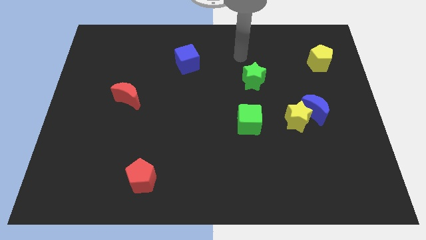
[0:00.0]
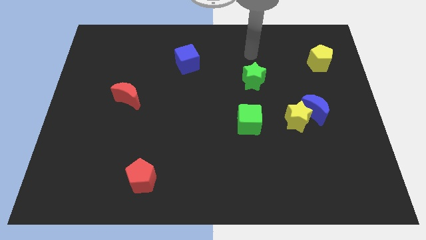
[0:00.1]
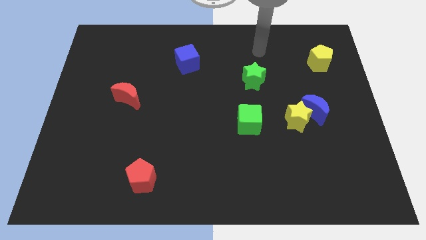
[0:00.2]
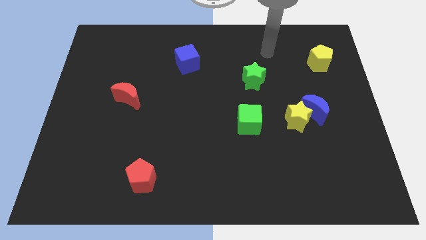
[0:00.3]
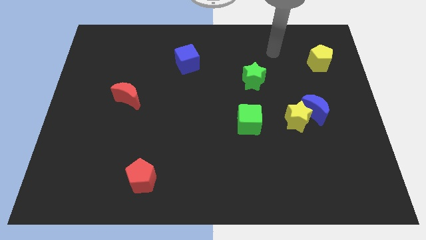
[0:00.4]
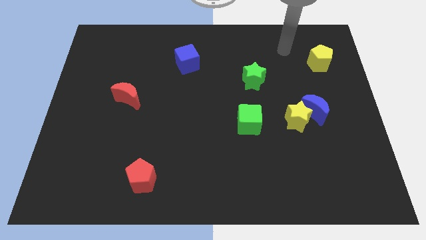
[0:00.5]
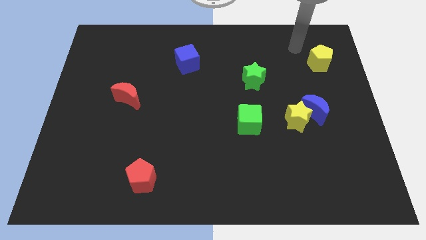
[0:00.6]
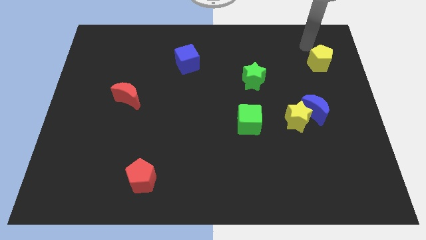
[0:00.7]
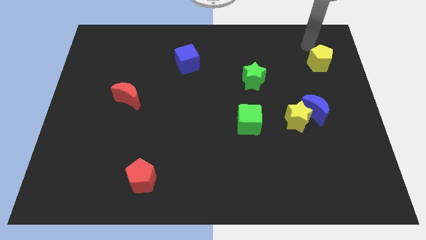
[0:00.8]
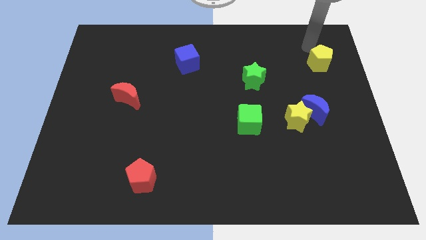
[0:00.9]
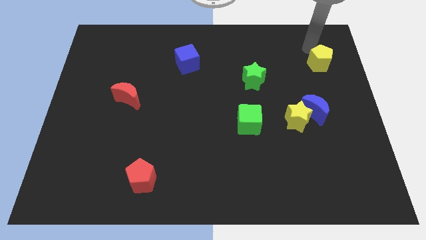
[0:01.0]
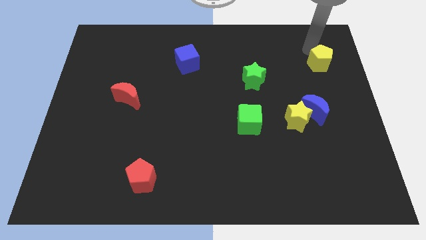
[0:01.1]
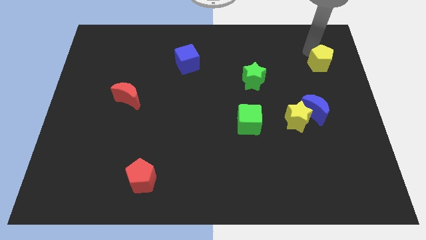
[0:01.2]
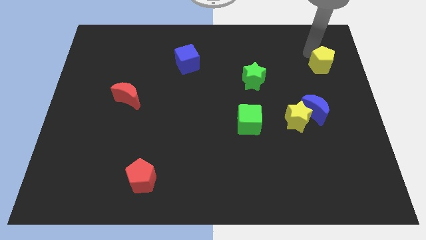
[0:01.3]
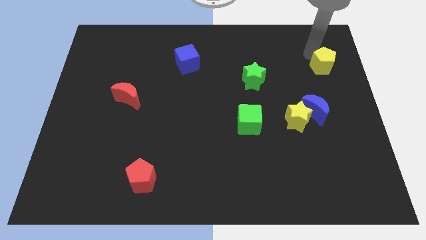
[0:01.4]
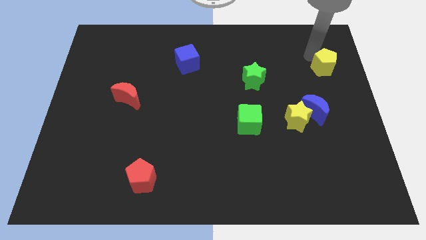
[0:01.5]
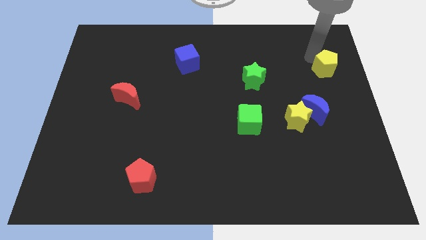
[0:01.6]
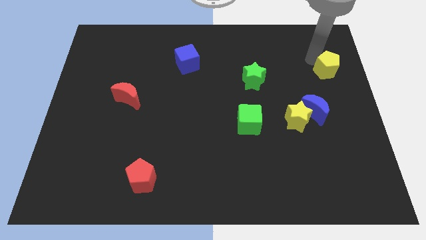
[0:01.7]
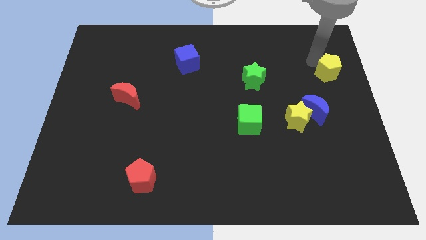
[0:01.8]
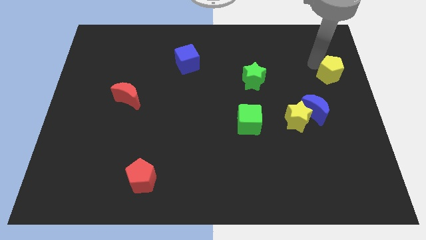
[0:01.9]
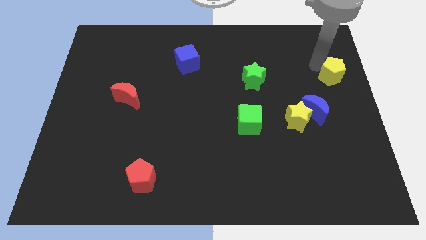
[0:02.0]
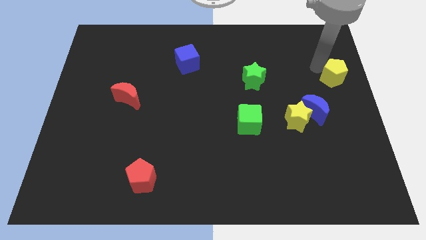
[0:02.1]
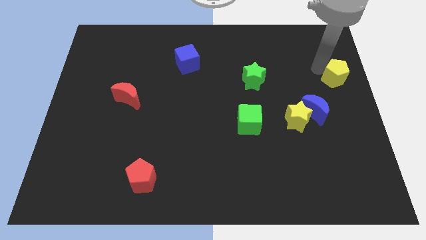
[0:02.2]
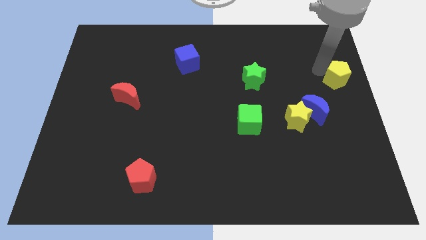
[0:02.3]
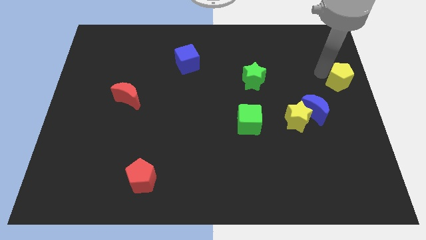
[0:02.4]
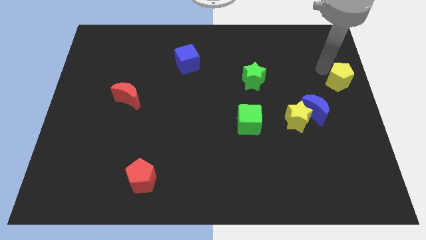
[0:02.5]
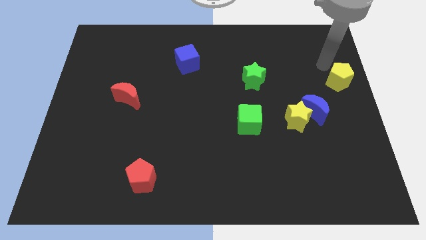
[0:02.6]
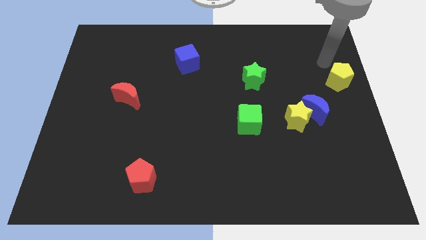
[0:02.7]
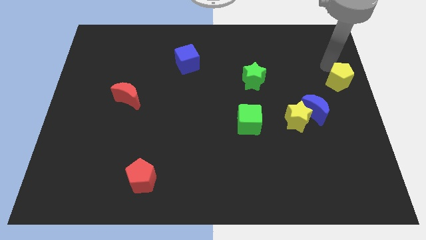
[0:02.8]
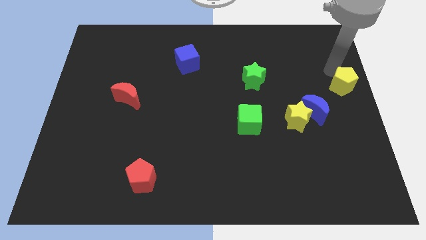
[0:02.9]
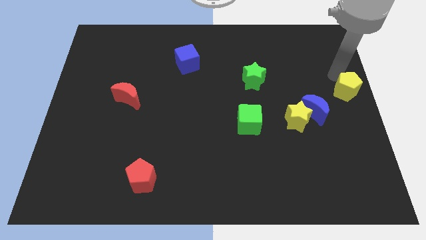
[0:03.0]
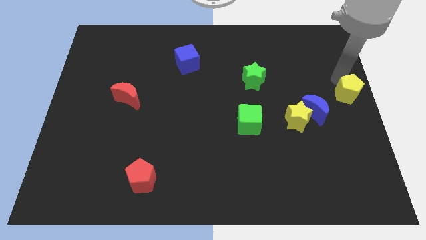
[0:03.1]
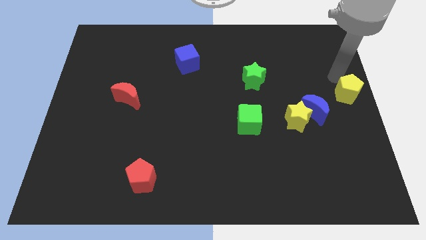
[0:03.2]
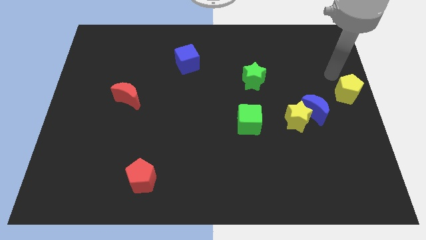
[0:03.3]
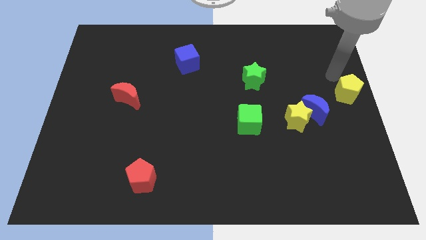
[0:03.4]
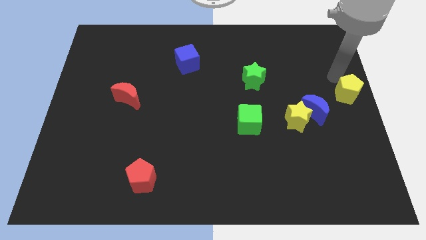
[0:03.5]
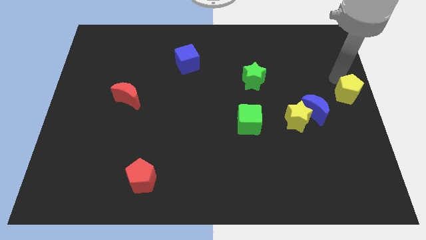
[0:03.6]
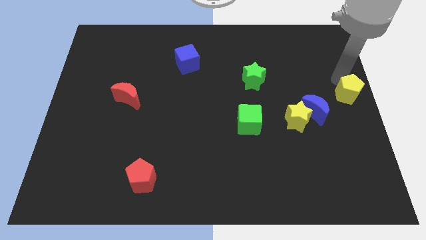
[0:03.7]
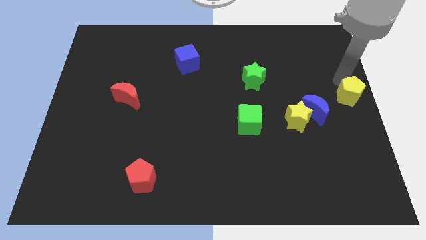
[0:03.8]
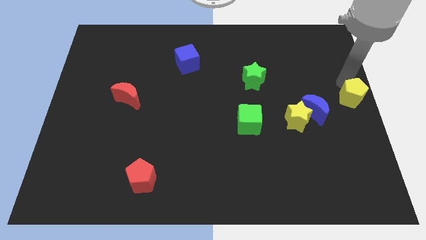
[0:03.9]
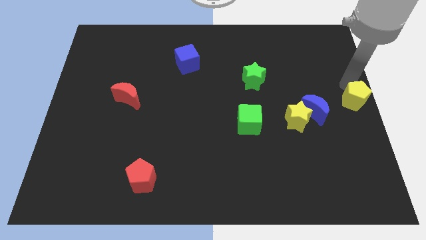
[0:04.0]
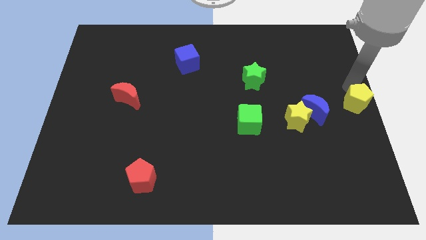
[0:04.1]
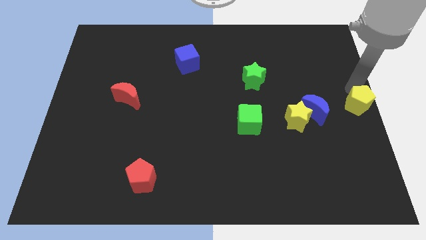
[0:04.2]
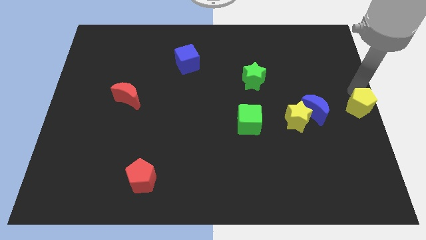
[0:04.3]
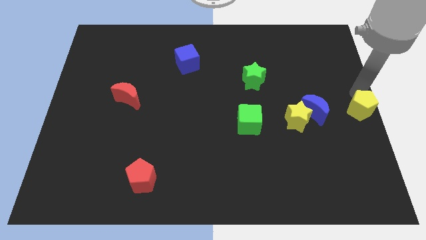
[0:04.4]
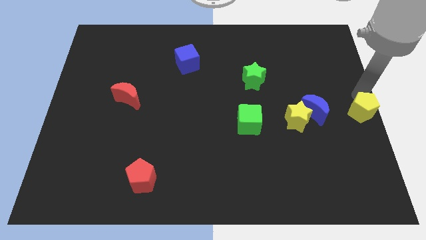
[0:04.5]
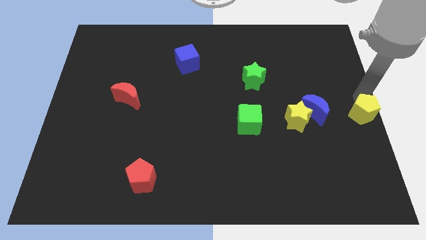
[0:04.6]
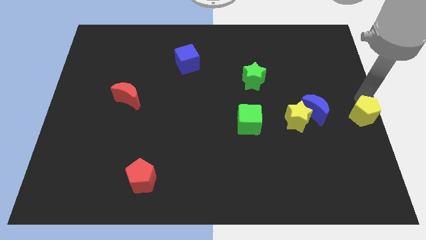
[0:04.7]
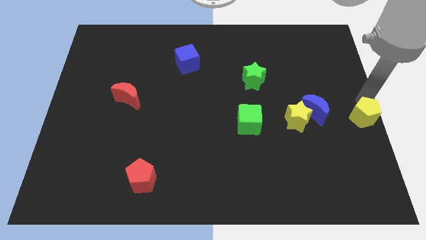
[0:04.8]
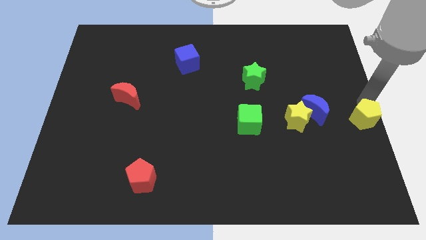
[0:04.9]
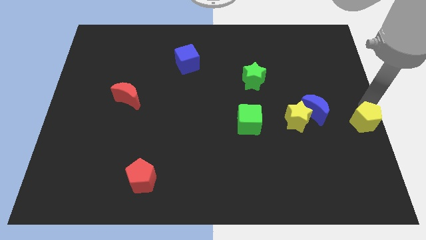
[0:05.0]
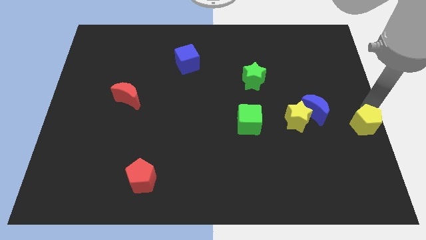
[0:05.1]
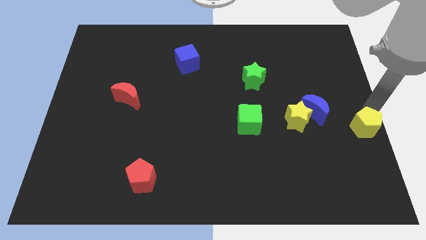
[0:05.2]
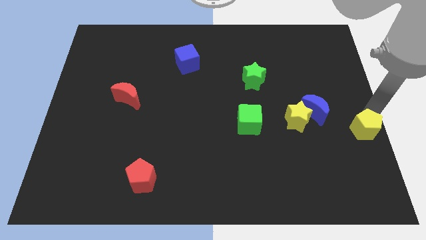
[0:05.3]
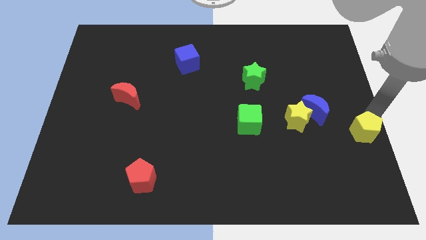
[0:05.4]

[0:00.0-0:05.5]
slide the yellow pentagon down

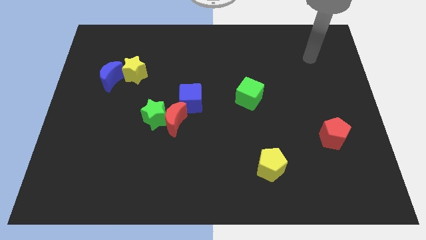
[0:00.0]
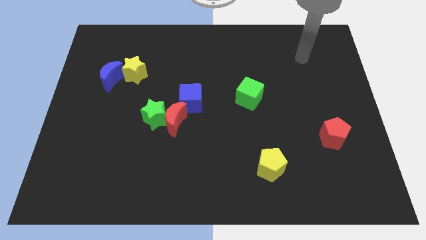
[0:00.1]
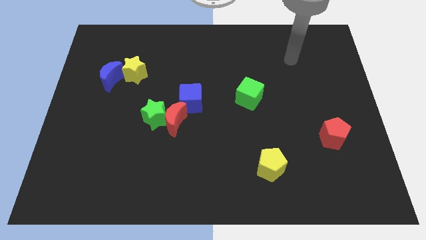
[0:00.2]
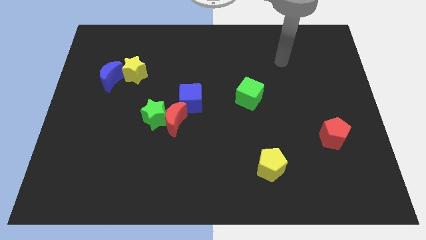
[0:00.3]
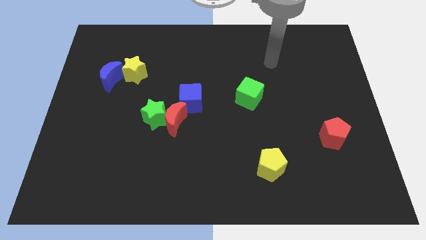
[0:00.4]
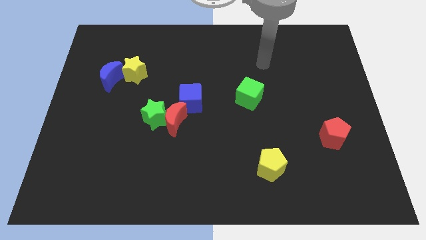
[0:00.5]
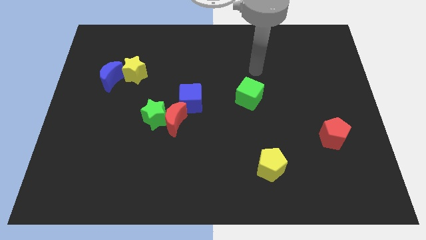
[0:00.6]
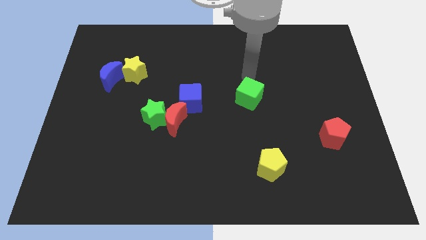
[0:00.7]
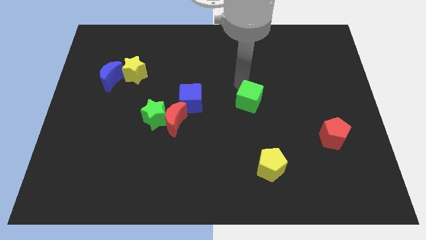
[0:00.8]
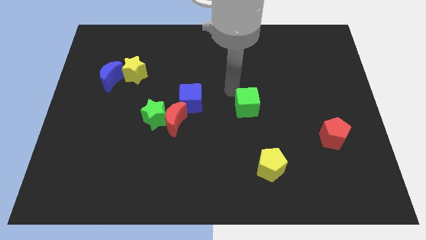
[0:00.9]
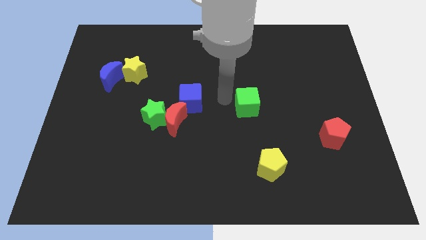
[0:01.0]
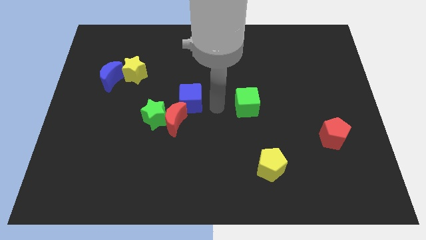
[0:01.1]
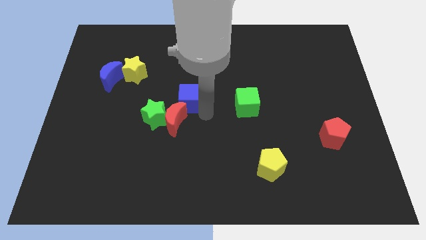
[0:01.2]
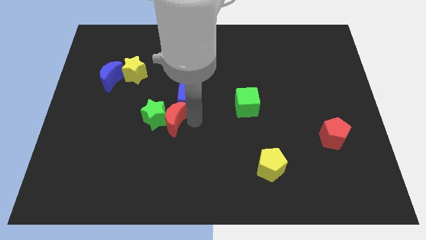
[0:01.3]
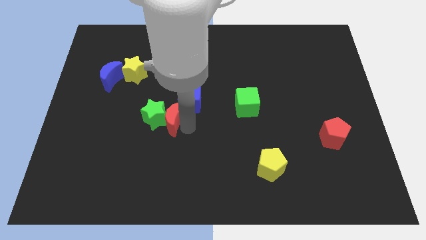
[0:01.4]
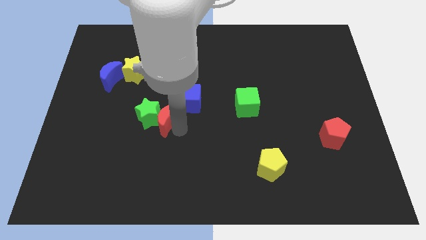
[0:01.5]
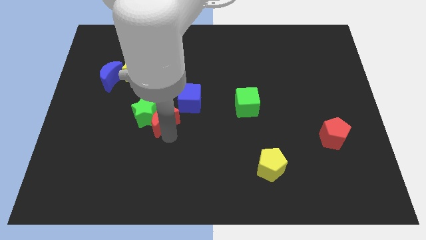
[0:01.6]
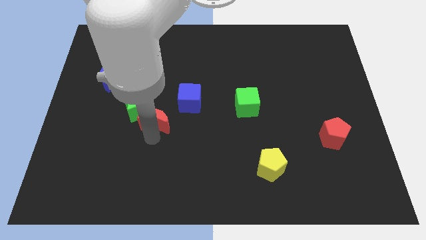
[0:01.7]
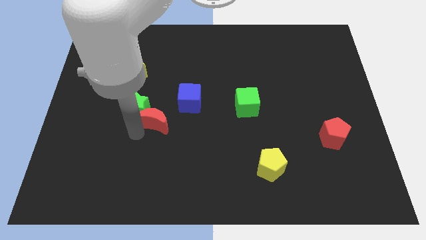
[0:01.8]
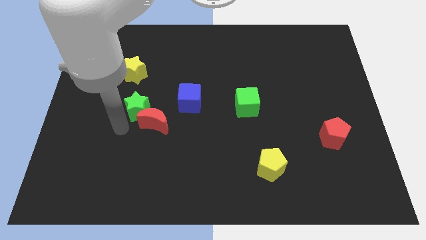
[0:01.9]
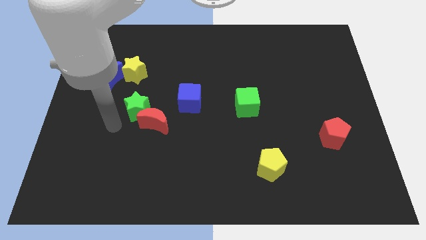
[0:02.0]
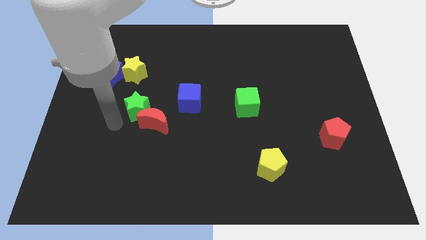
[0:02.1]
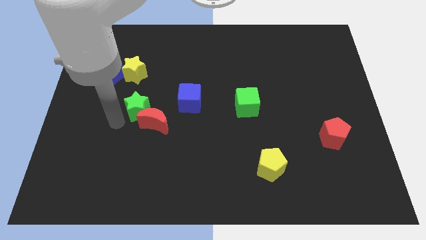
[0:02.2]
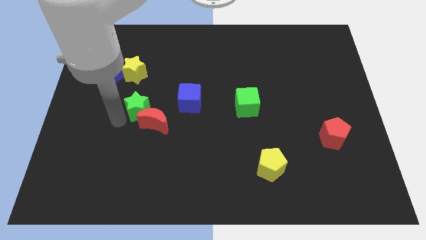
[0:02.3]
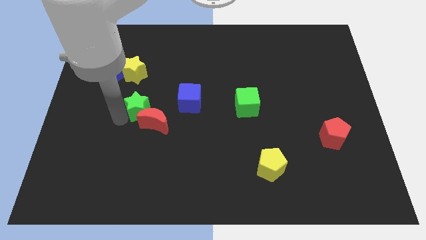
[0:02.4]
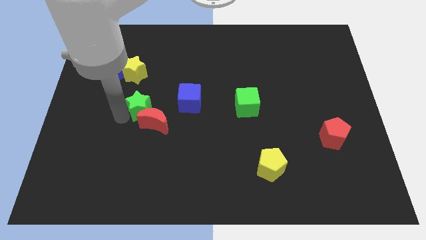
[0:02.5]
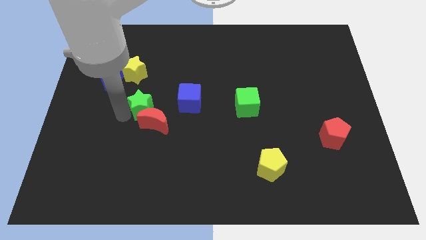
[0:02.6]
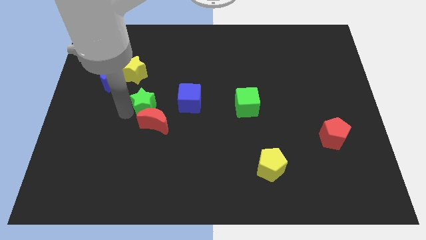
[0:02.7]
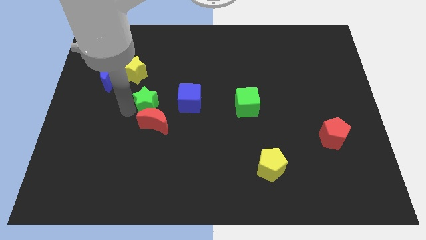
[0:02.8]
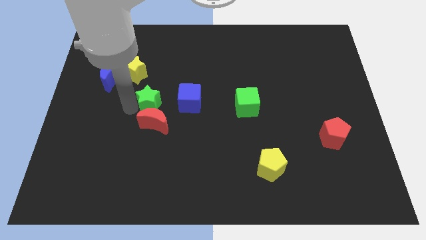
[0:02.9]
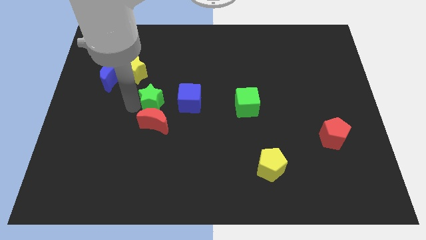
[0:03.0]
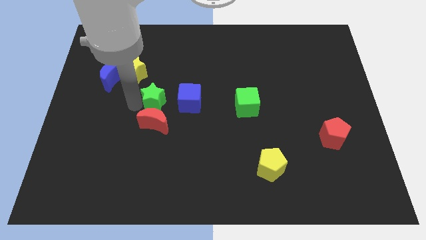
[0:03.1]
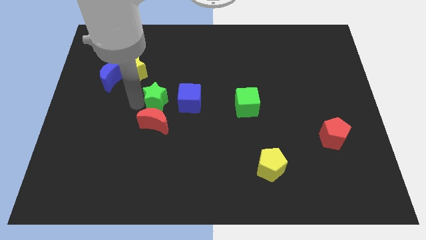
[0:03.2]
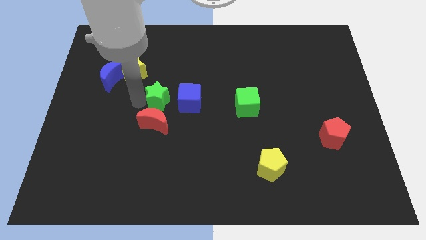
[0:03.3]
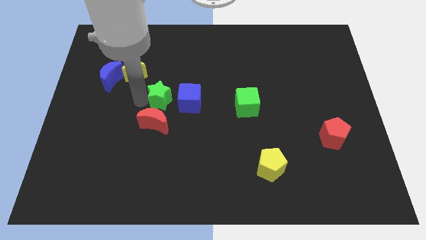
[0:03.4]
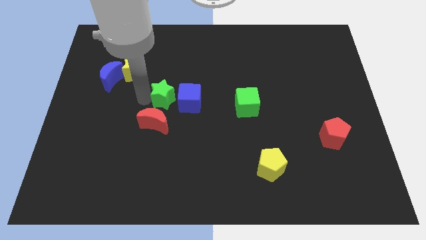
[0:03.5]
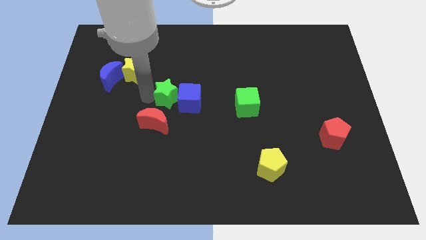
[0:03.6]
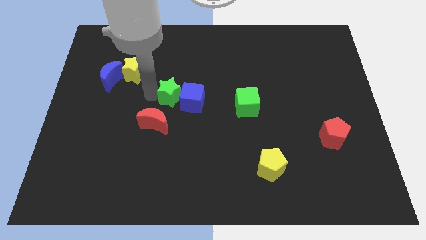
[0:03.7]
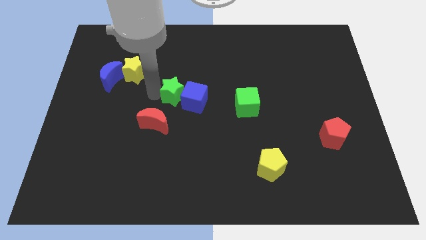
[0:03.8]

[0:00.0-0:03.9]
push the green star up and then to the right a little
